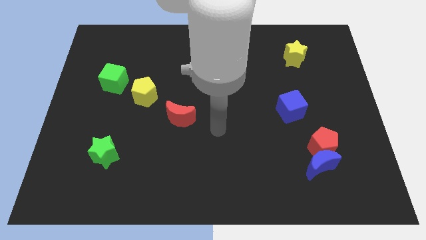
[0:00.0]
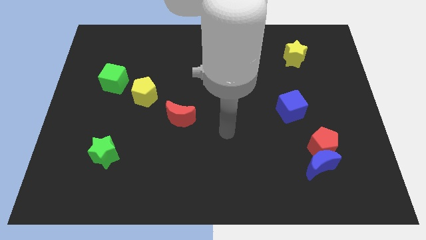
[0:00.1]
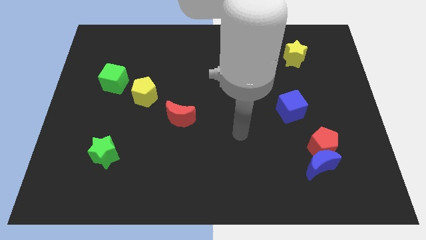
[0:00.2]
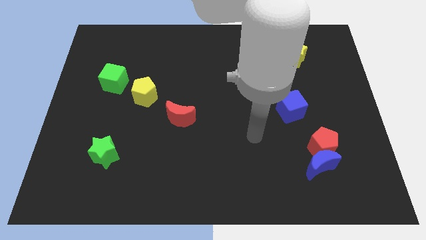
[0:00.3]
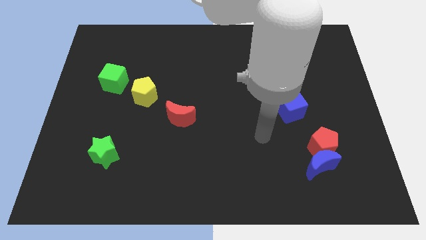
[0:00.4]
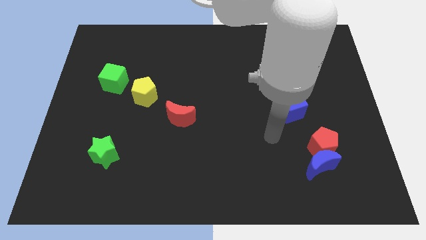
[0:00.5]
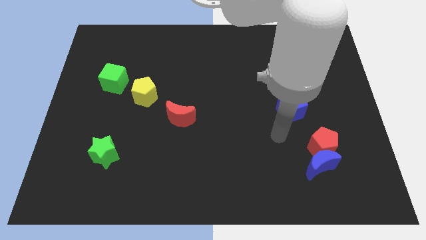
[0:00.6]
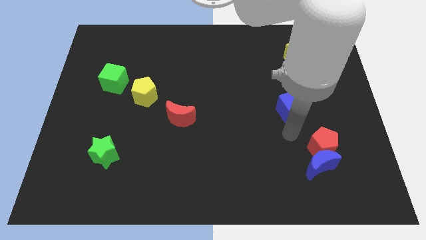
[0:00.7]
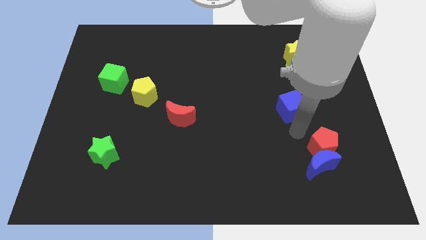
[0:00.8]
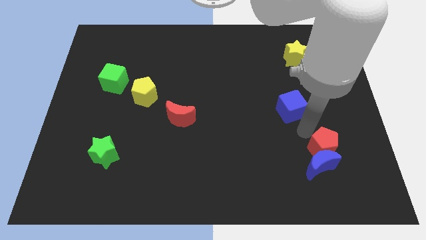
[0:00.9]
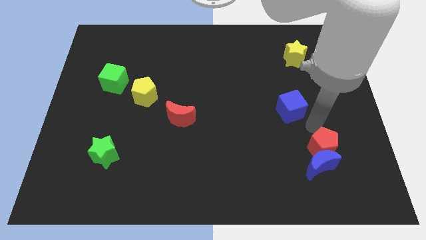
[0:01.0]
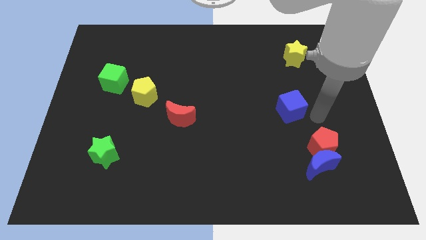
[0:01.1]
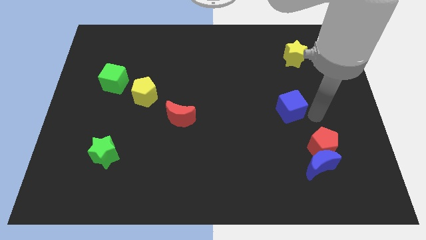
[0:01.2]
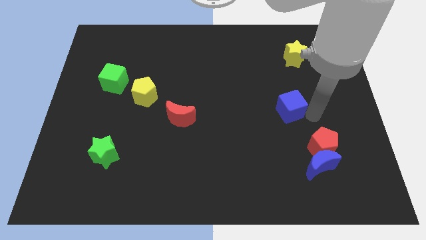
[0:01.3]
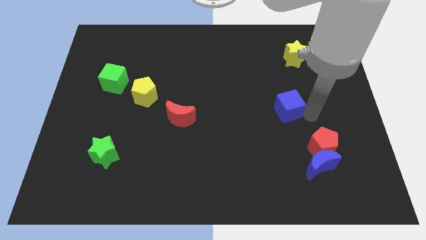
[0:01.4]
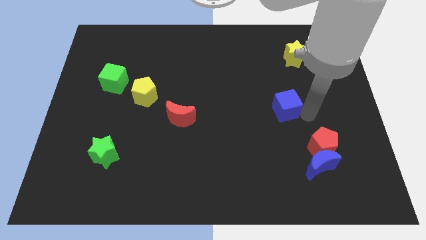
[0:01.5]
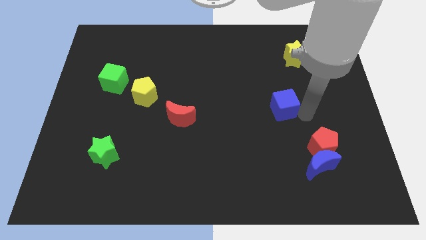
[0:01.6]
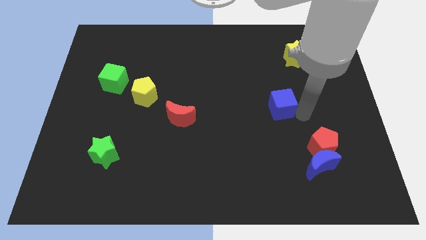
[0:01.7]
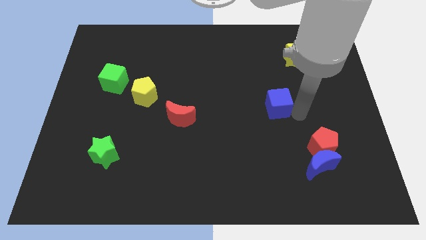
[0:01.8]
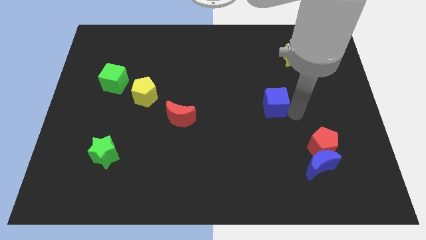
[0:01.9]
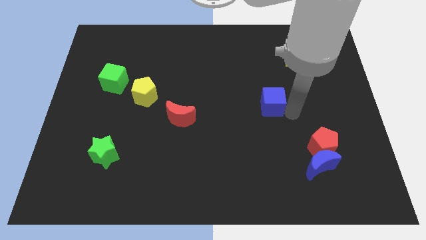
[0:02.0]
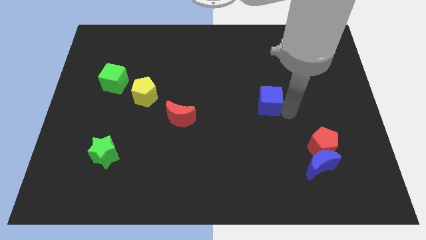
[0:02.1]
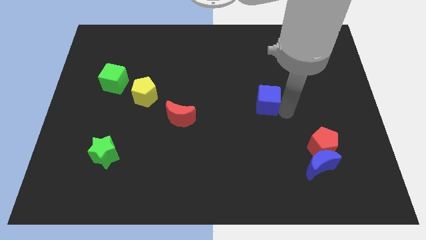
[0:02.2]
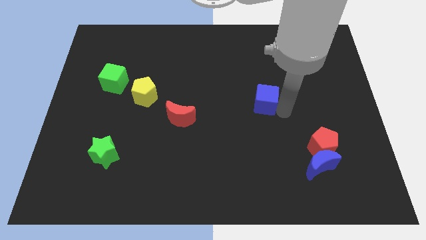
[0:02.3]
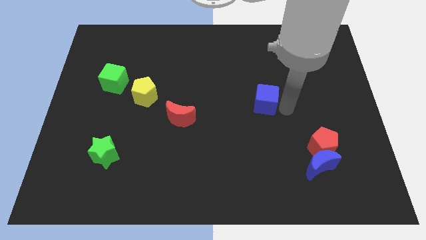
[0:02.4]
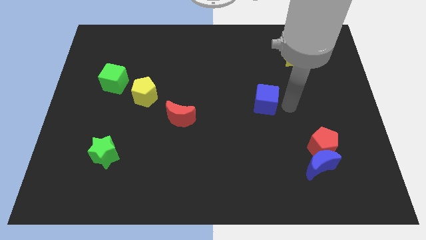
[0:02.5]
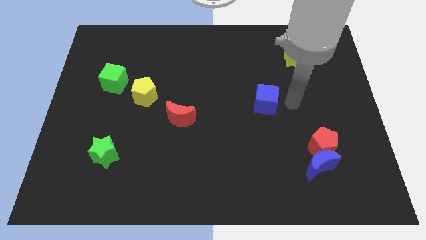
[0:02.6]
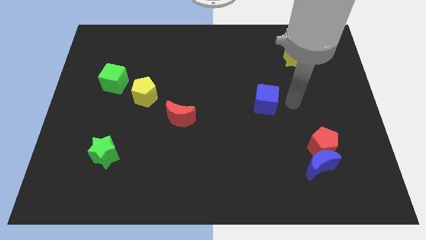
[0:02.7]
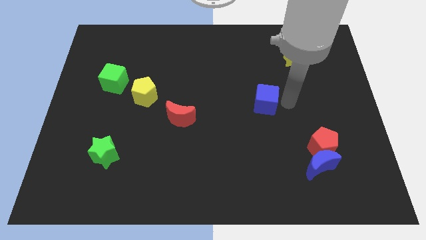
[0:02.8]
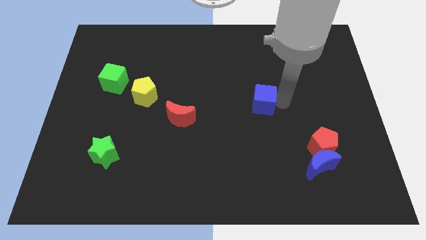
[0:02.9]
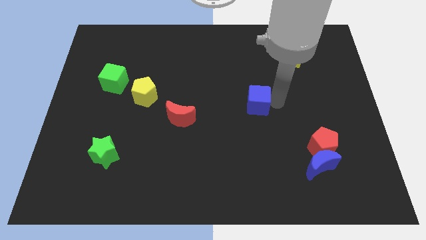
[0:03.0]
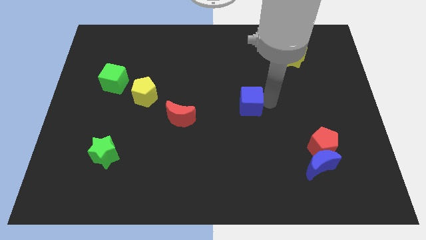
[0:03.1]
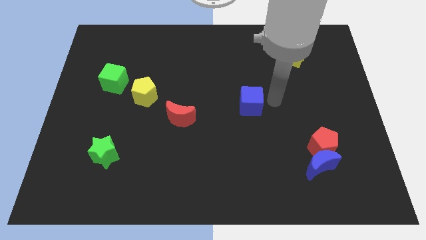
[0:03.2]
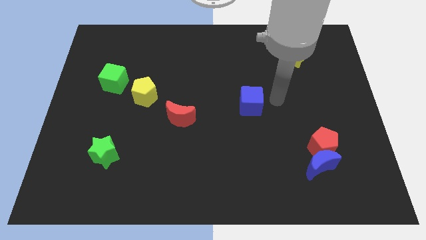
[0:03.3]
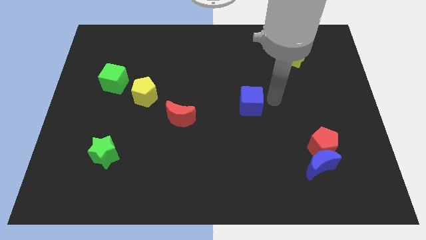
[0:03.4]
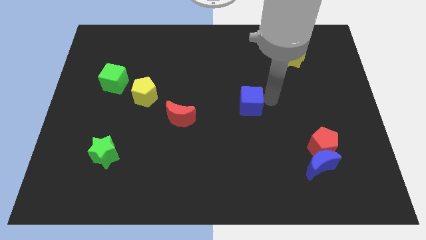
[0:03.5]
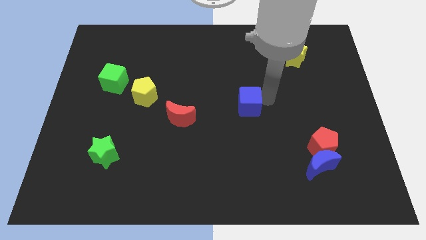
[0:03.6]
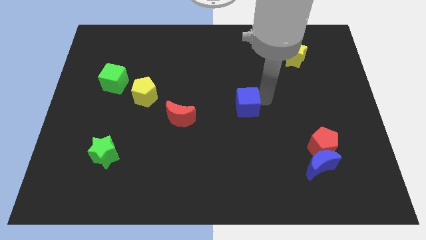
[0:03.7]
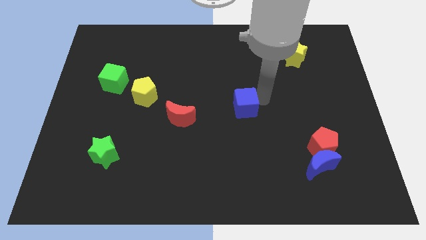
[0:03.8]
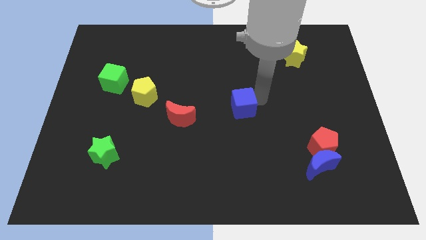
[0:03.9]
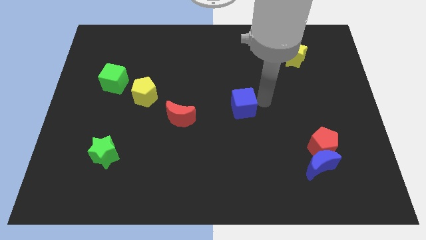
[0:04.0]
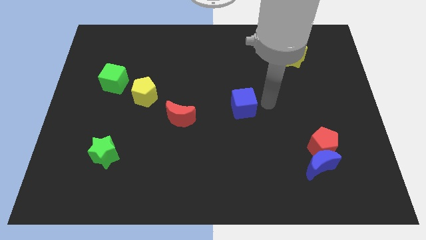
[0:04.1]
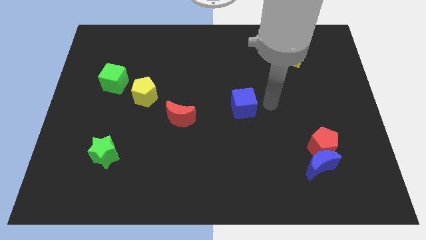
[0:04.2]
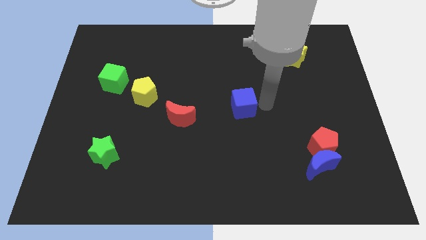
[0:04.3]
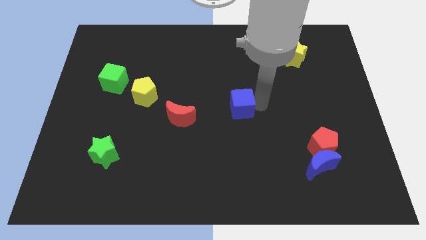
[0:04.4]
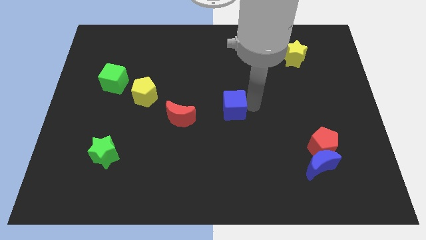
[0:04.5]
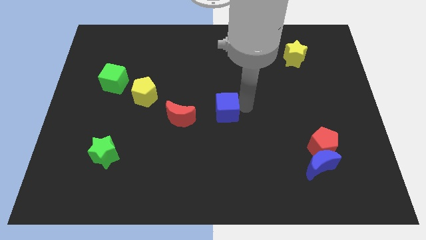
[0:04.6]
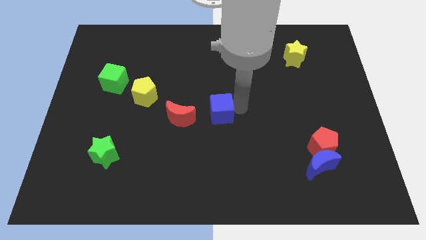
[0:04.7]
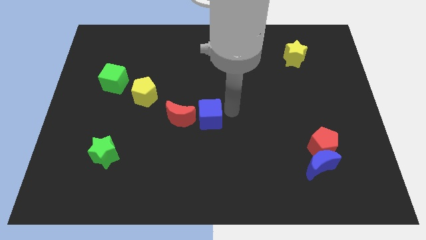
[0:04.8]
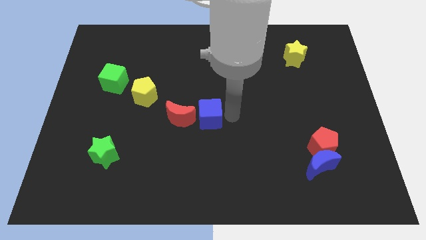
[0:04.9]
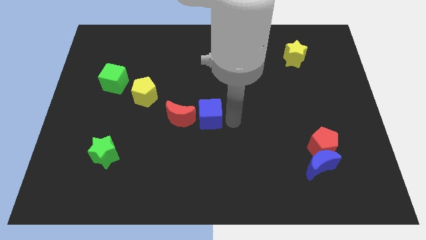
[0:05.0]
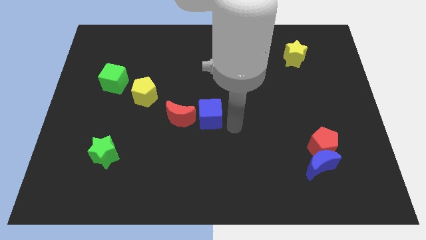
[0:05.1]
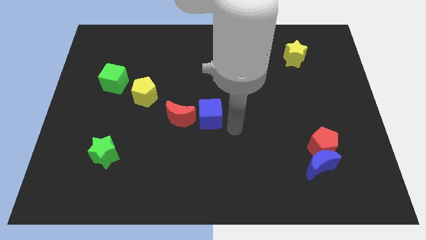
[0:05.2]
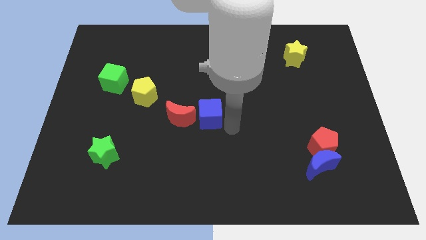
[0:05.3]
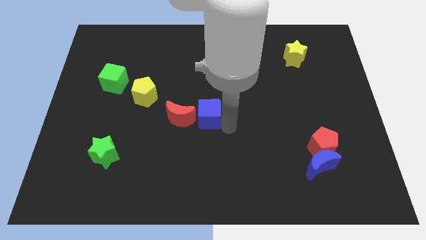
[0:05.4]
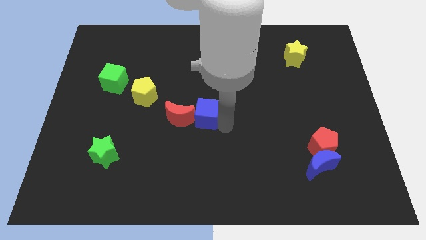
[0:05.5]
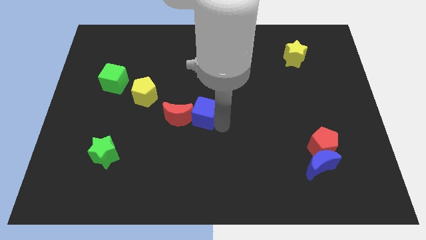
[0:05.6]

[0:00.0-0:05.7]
push the blue cube to the left

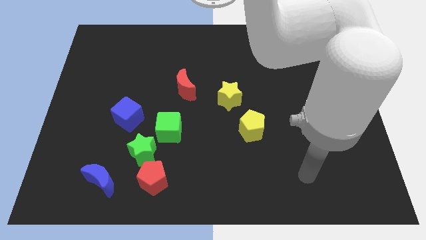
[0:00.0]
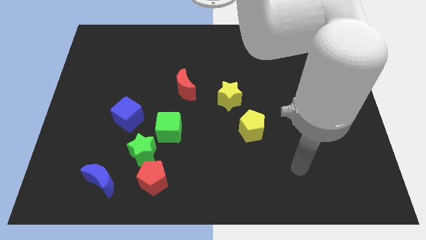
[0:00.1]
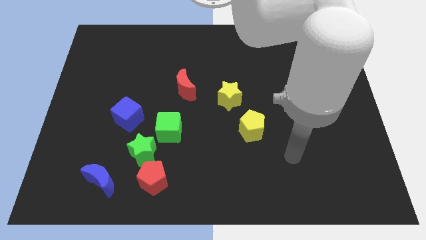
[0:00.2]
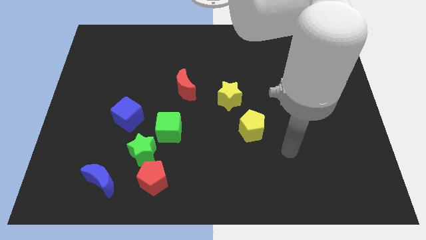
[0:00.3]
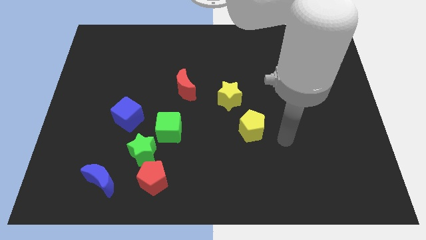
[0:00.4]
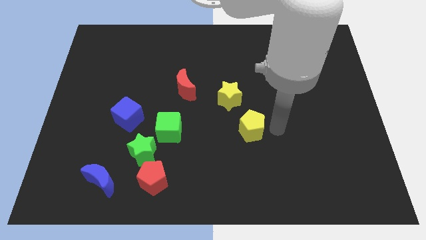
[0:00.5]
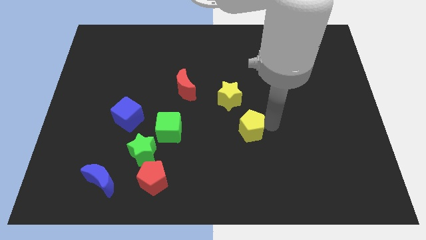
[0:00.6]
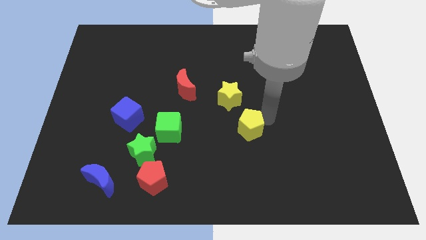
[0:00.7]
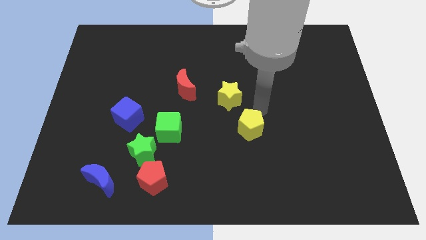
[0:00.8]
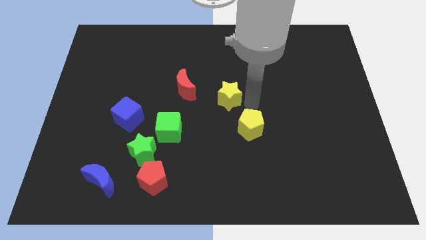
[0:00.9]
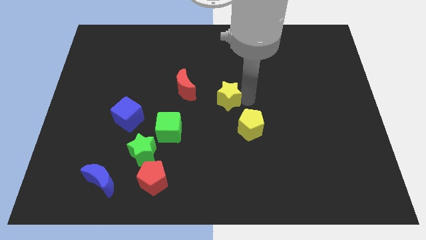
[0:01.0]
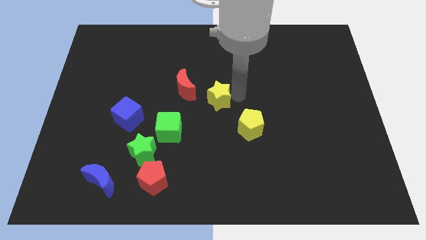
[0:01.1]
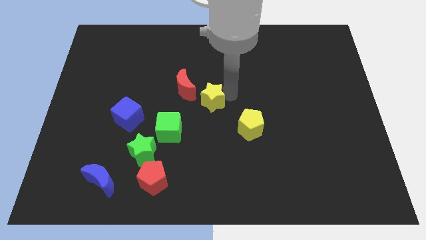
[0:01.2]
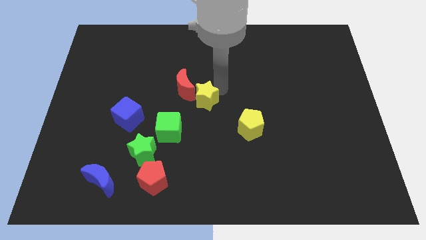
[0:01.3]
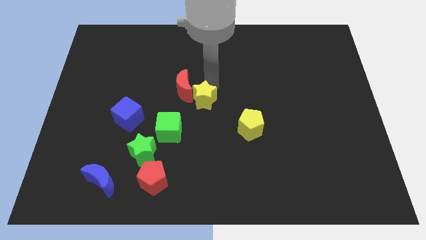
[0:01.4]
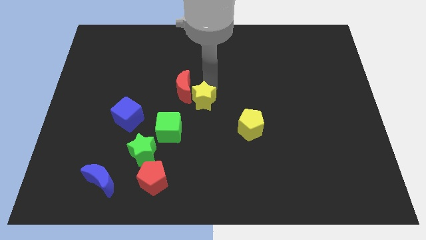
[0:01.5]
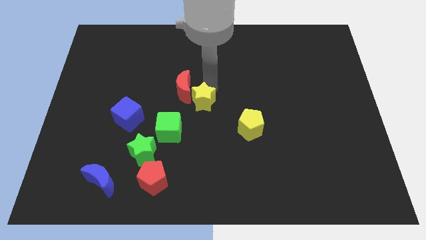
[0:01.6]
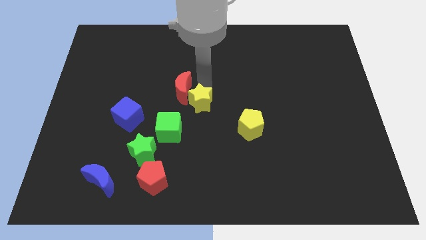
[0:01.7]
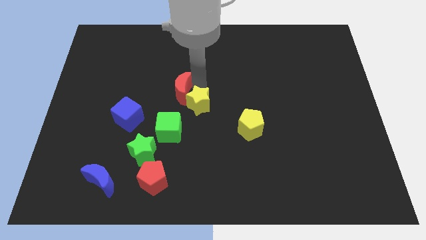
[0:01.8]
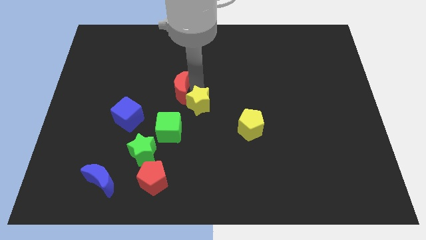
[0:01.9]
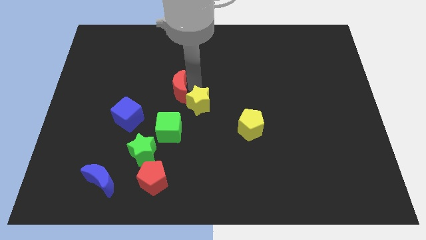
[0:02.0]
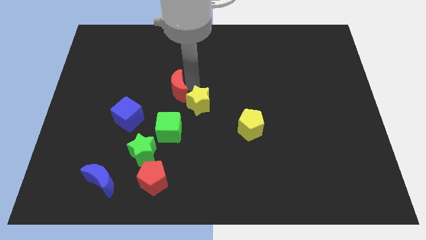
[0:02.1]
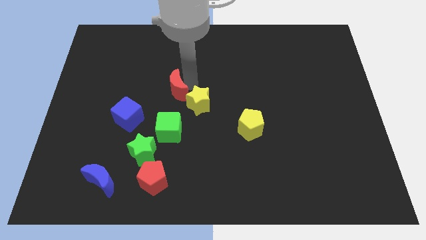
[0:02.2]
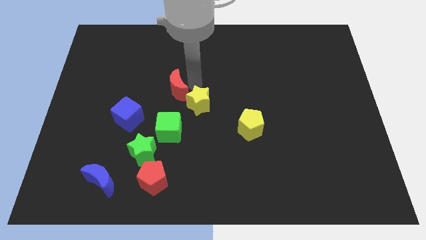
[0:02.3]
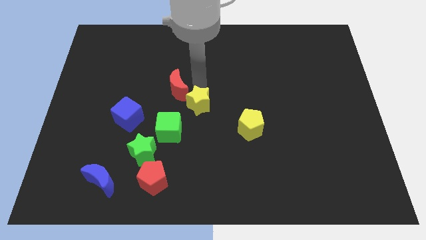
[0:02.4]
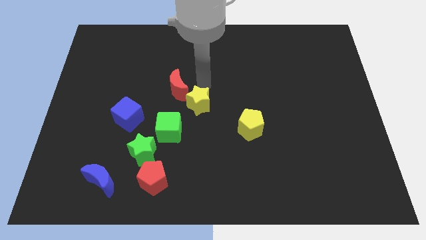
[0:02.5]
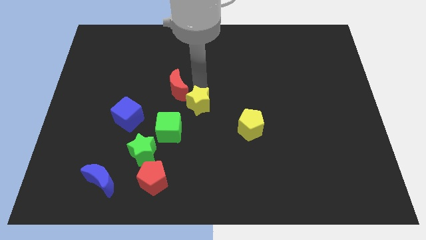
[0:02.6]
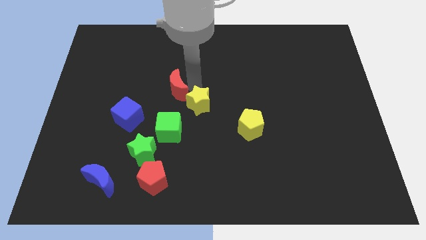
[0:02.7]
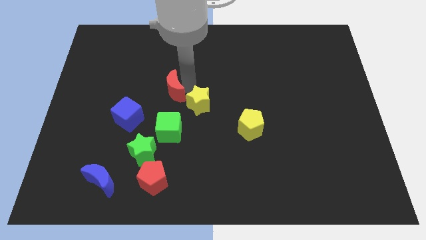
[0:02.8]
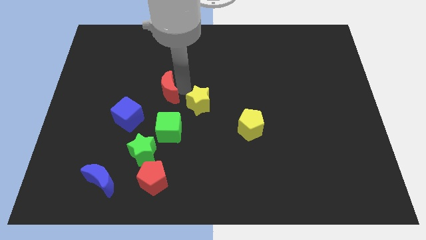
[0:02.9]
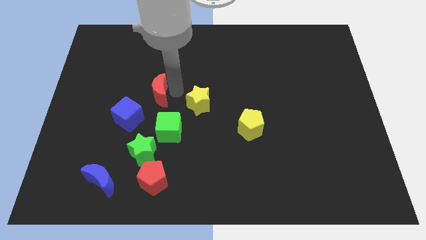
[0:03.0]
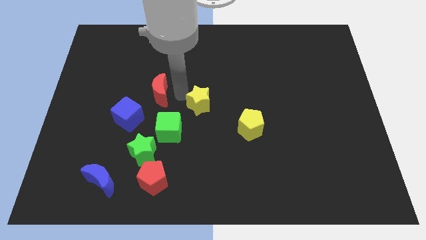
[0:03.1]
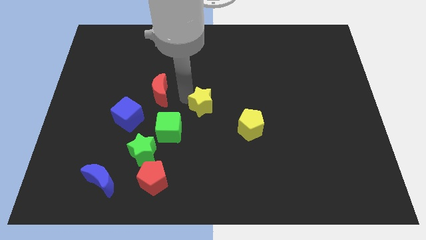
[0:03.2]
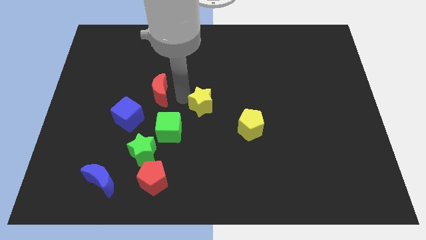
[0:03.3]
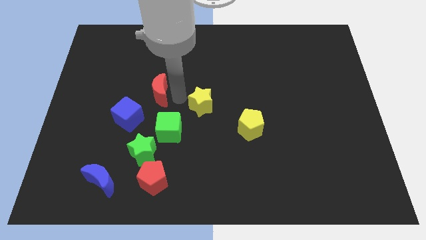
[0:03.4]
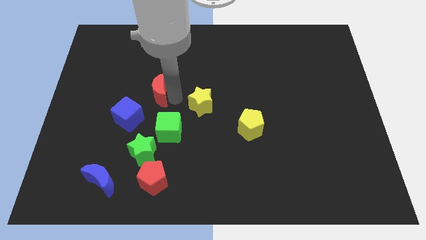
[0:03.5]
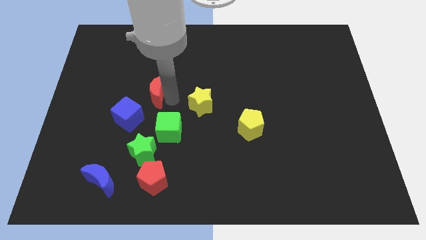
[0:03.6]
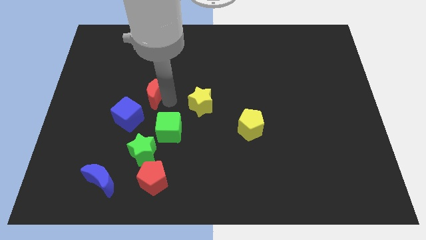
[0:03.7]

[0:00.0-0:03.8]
move the red moon a bit to the left
